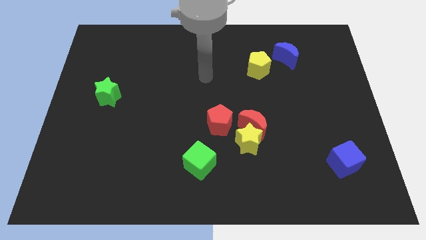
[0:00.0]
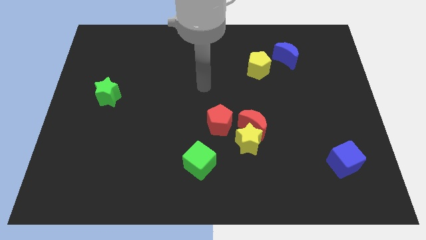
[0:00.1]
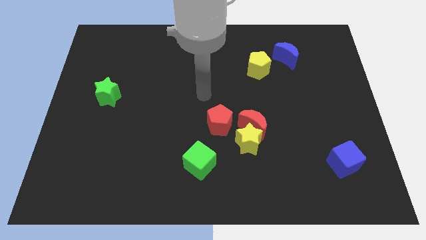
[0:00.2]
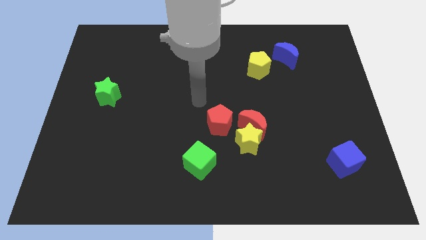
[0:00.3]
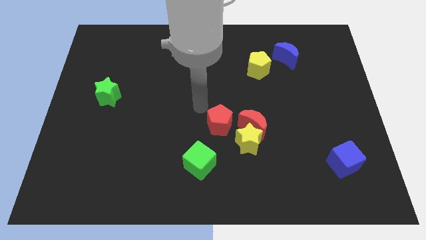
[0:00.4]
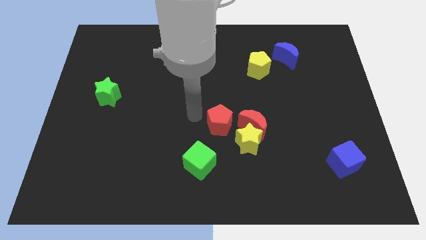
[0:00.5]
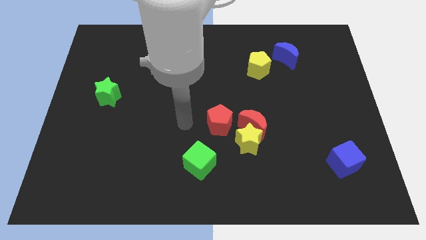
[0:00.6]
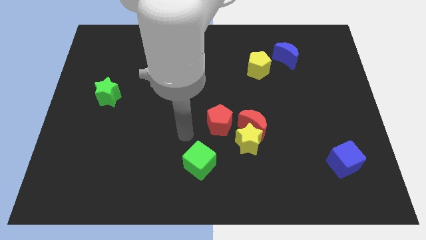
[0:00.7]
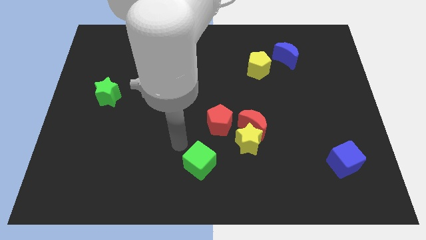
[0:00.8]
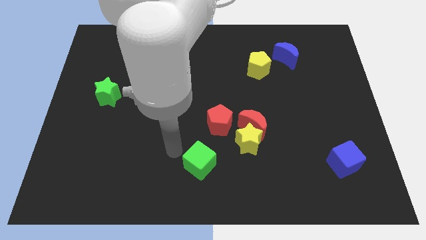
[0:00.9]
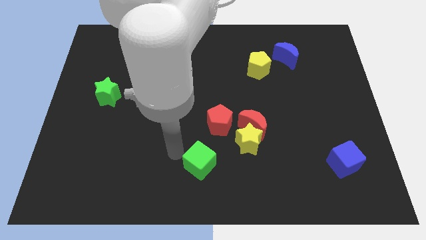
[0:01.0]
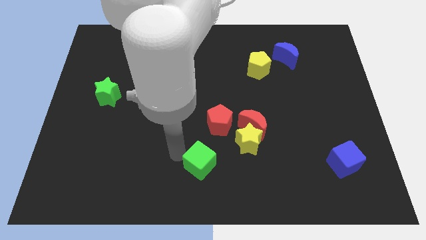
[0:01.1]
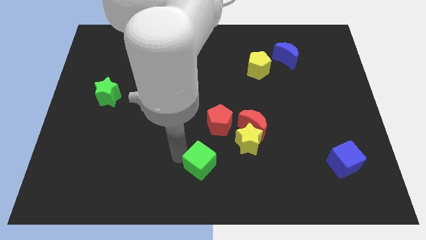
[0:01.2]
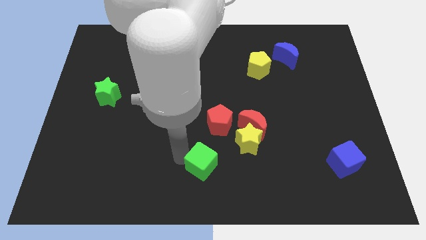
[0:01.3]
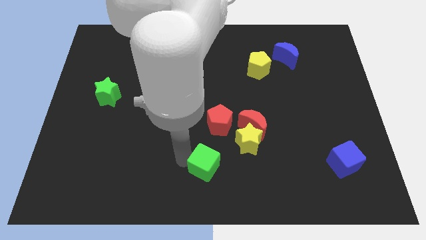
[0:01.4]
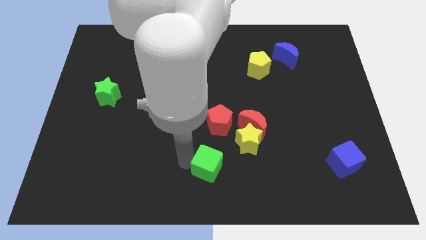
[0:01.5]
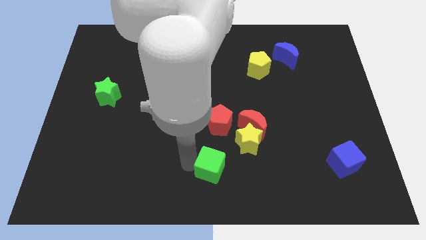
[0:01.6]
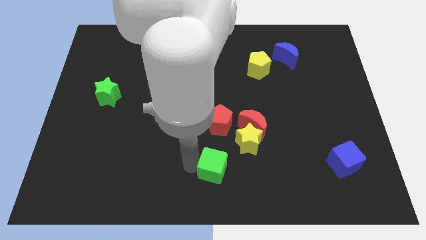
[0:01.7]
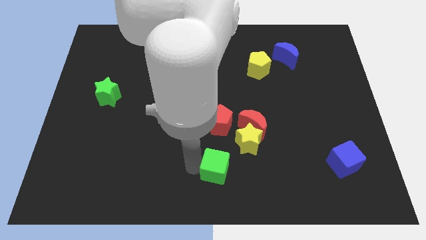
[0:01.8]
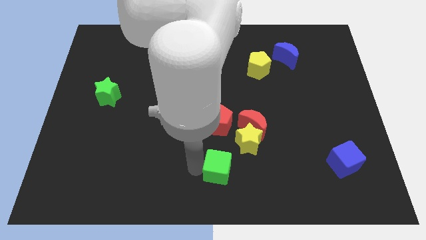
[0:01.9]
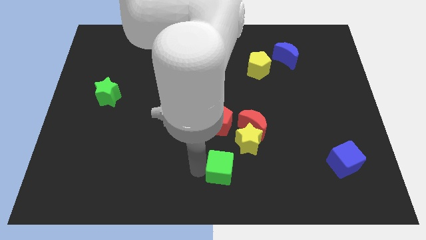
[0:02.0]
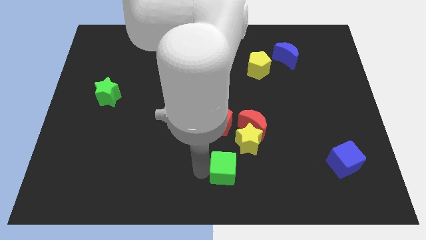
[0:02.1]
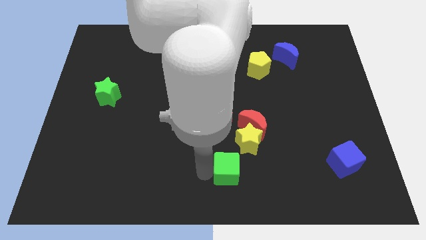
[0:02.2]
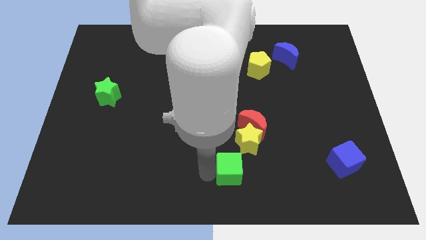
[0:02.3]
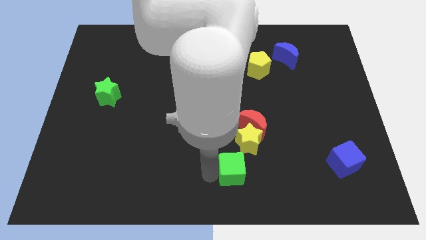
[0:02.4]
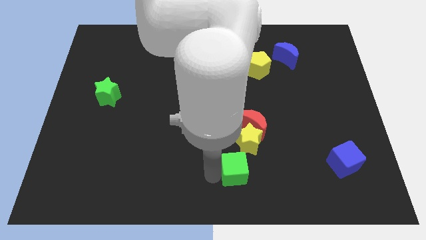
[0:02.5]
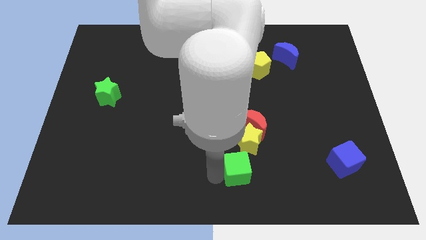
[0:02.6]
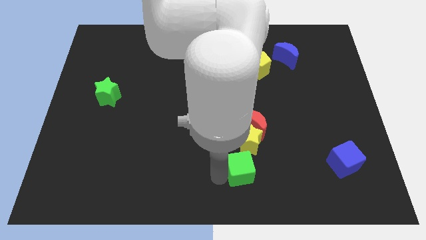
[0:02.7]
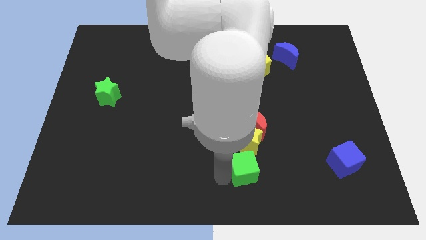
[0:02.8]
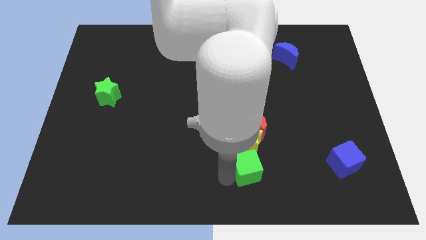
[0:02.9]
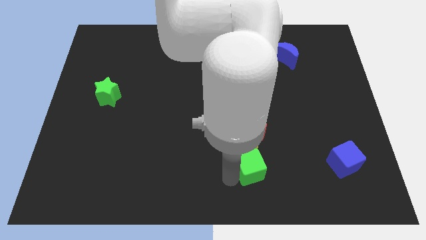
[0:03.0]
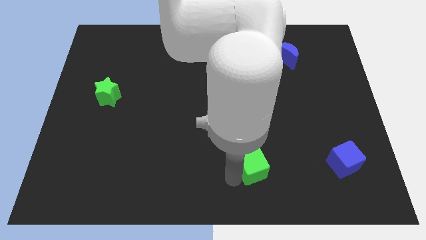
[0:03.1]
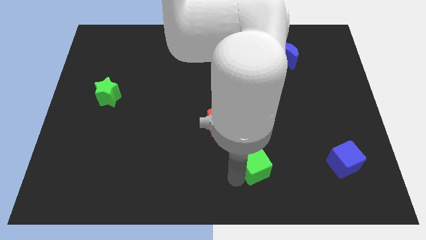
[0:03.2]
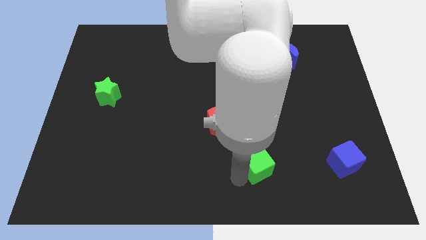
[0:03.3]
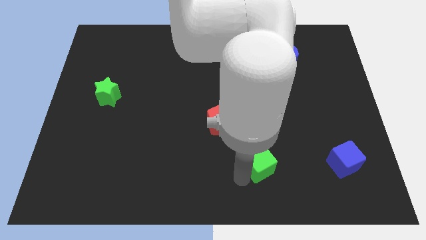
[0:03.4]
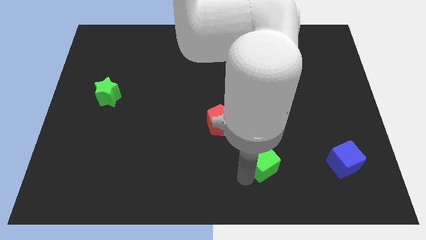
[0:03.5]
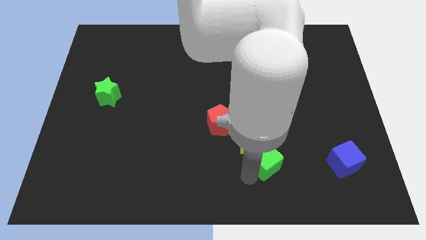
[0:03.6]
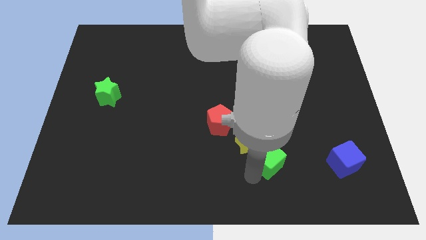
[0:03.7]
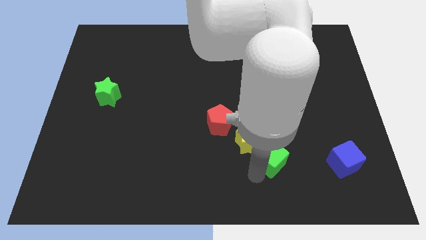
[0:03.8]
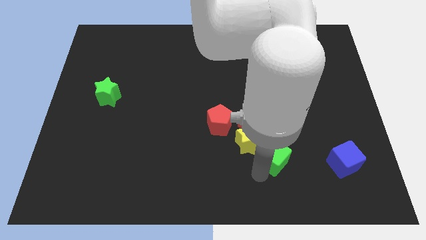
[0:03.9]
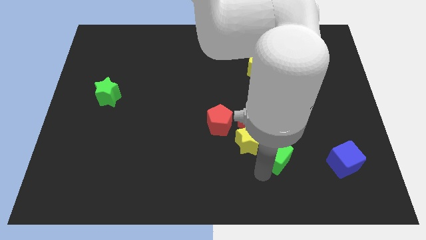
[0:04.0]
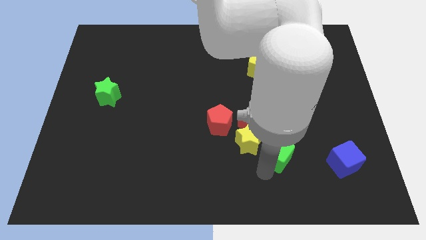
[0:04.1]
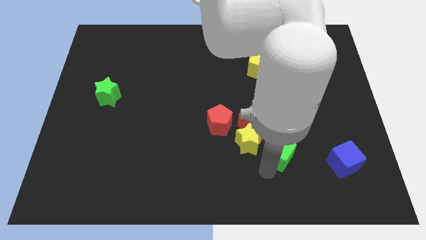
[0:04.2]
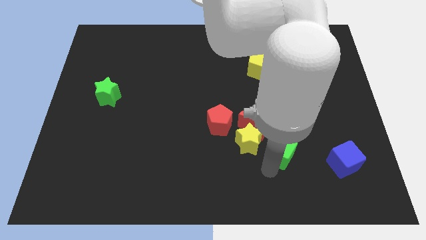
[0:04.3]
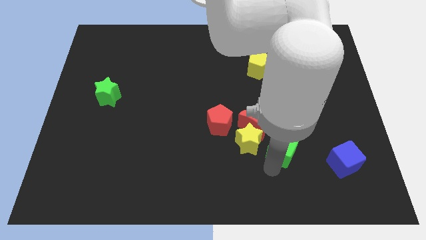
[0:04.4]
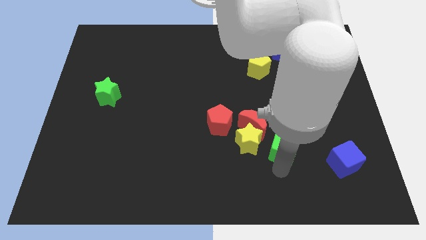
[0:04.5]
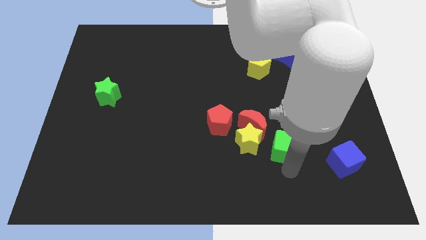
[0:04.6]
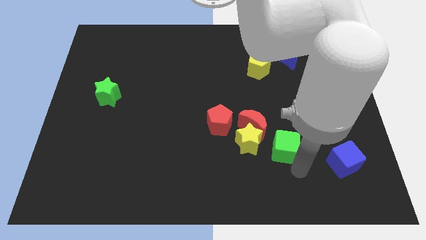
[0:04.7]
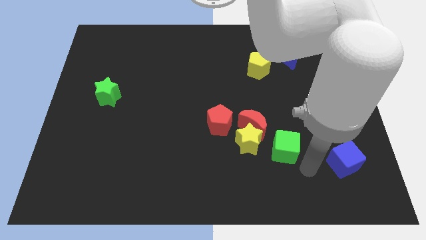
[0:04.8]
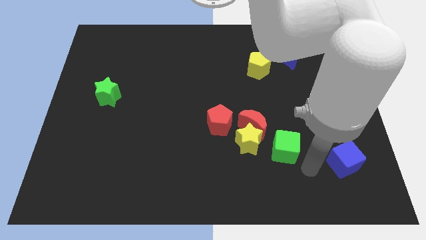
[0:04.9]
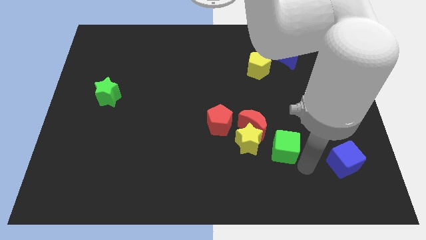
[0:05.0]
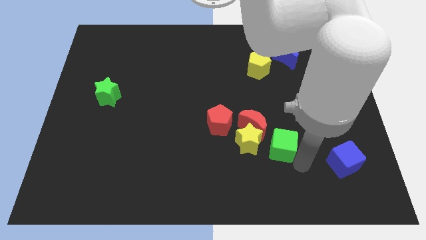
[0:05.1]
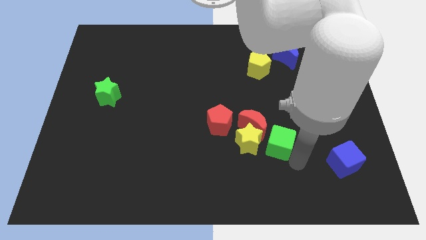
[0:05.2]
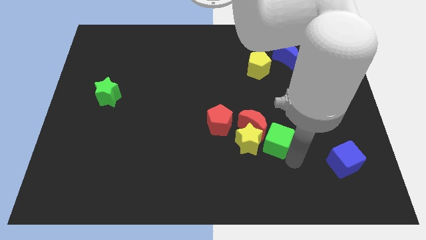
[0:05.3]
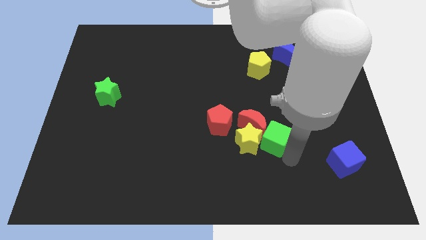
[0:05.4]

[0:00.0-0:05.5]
push the green cube to the red moon

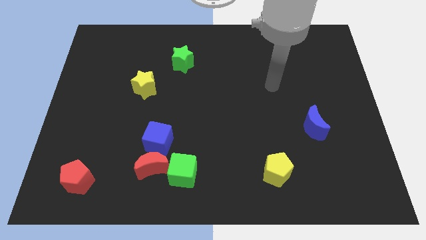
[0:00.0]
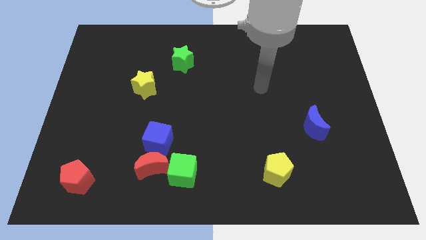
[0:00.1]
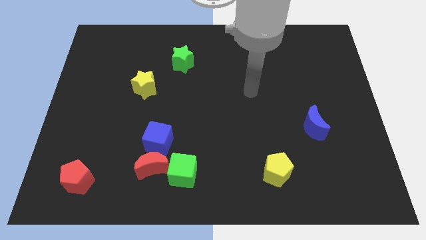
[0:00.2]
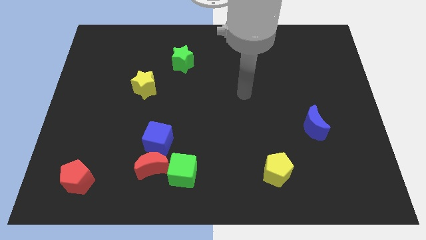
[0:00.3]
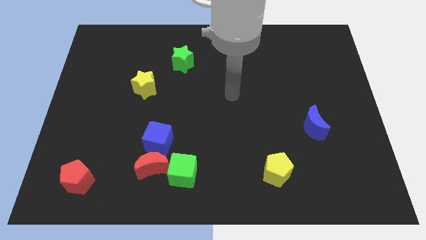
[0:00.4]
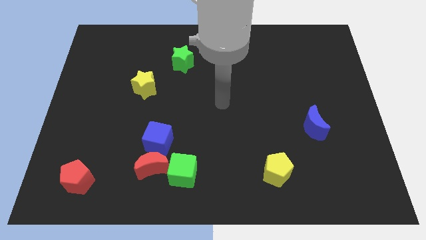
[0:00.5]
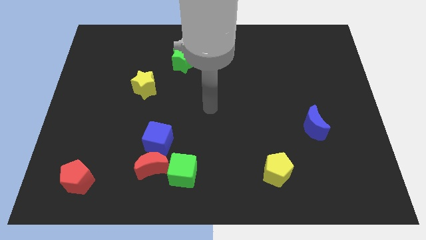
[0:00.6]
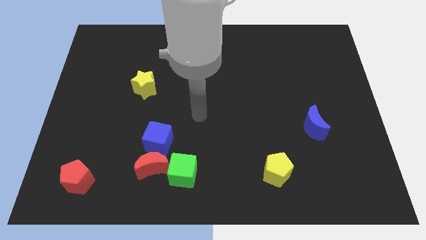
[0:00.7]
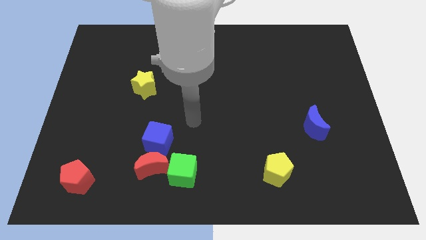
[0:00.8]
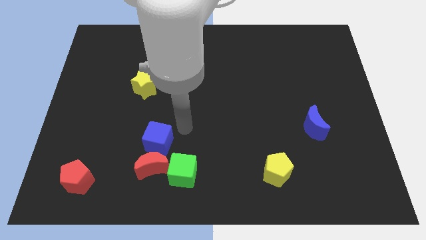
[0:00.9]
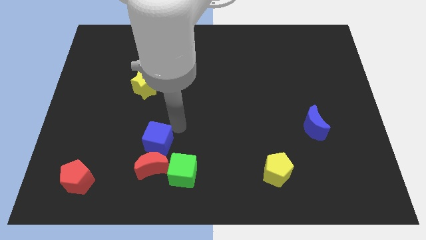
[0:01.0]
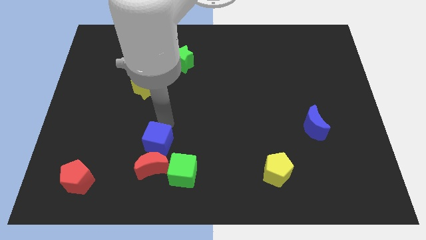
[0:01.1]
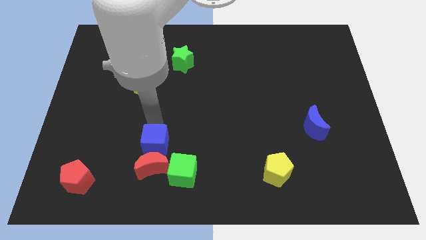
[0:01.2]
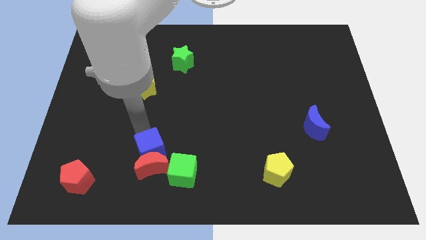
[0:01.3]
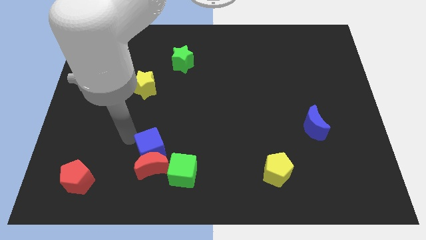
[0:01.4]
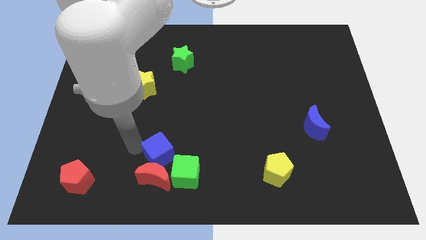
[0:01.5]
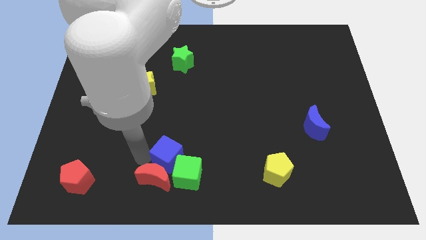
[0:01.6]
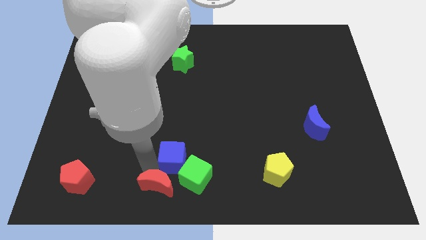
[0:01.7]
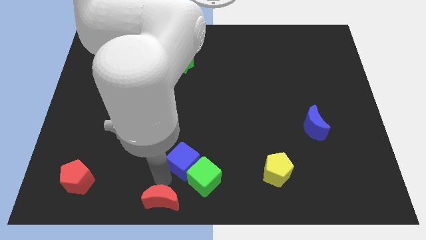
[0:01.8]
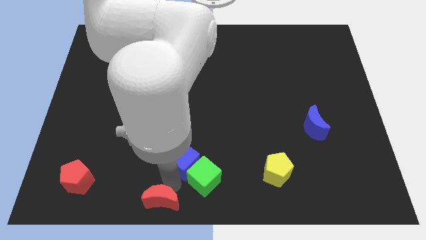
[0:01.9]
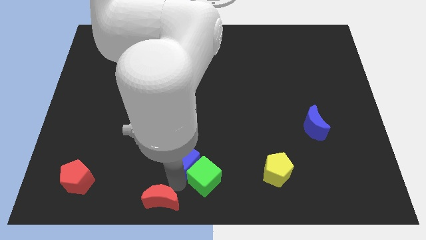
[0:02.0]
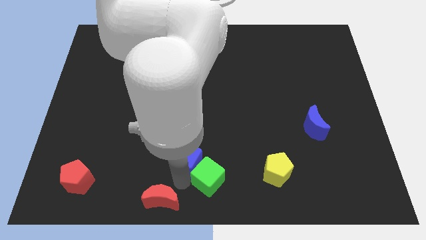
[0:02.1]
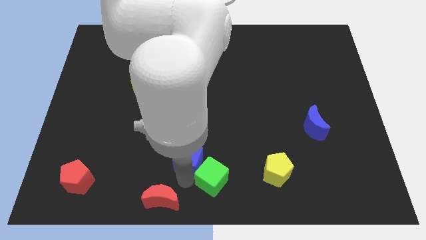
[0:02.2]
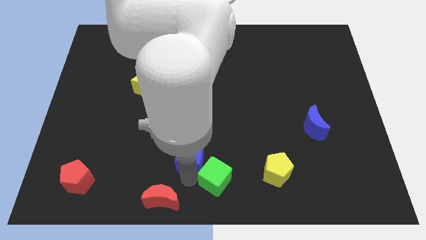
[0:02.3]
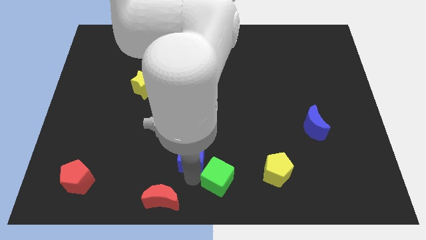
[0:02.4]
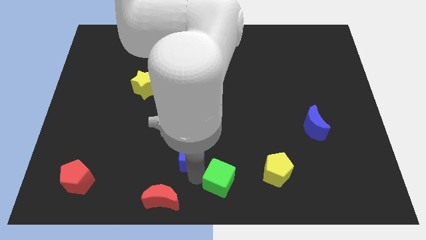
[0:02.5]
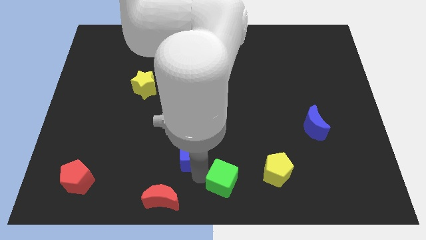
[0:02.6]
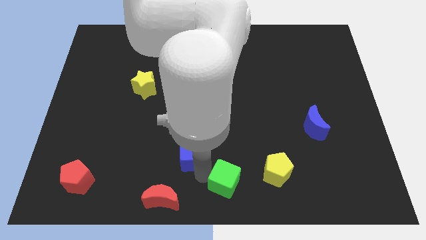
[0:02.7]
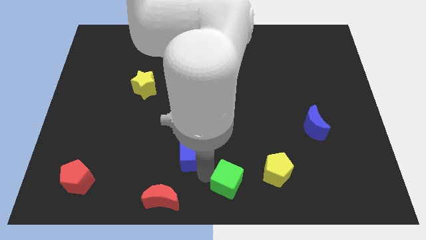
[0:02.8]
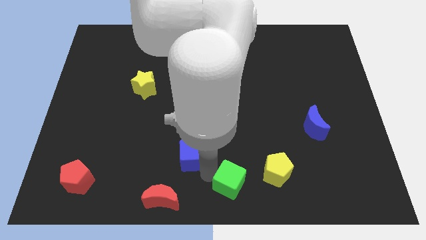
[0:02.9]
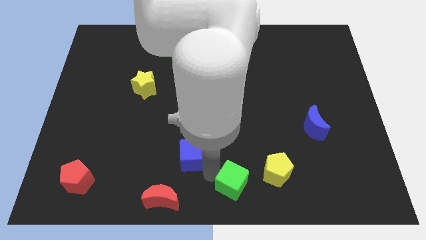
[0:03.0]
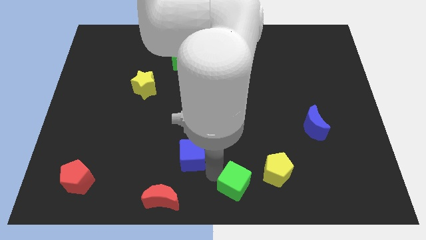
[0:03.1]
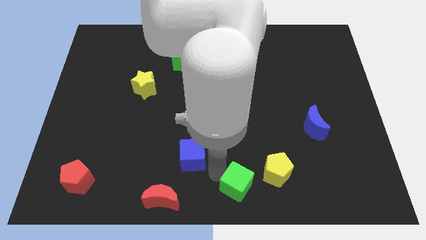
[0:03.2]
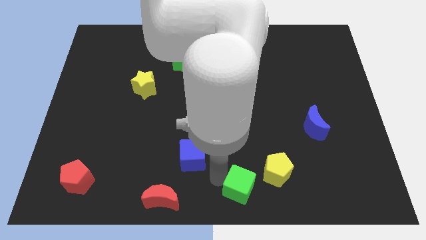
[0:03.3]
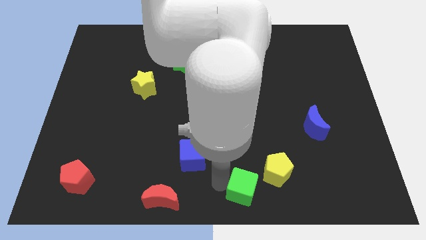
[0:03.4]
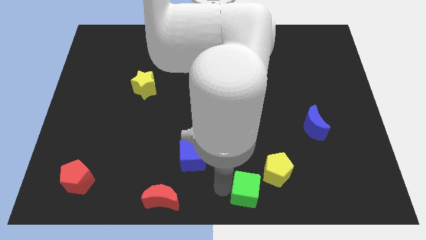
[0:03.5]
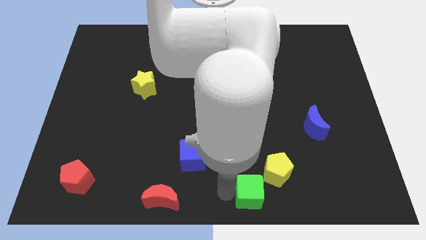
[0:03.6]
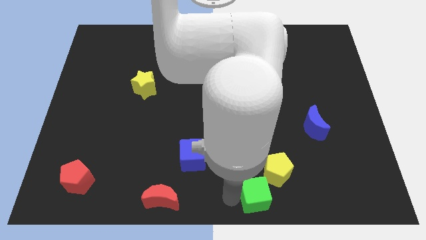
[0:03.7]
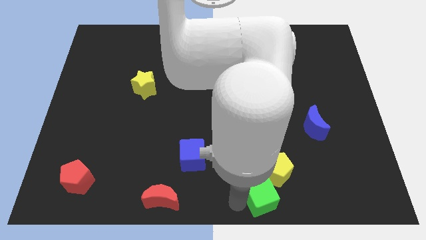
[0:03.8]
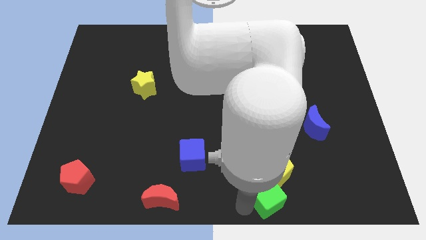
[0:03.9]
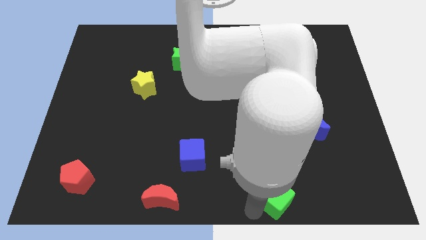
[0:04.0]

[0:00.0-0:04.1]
move the green cube to the yellow pentagon
